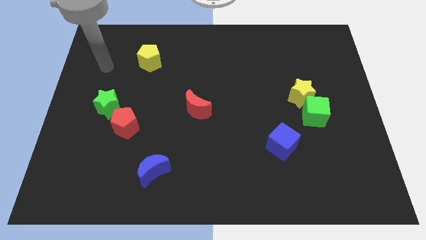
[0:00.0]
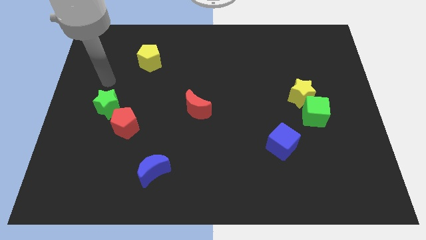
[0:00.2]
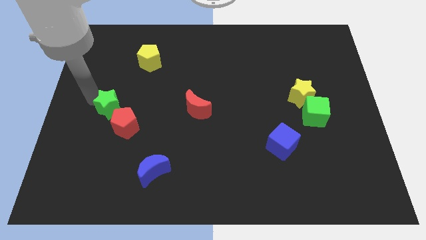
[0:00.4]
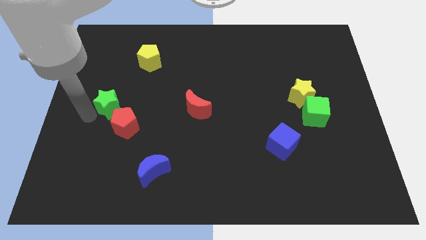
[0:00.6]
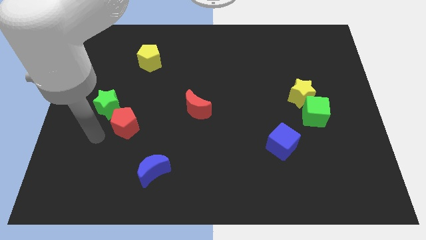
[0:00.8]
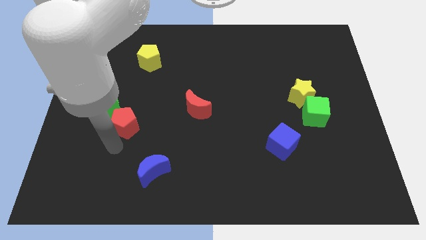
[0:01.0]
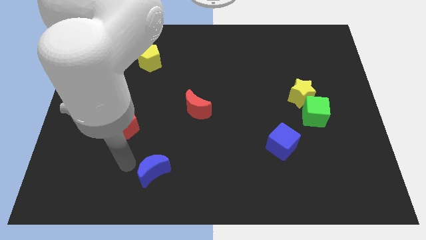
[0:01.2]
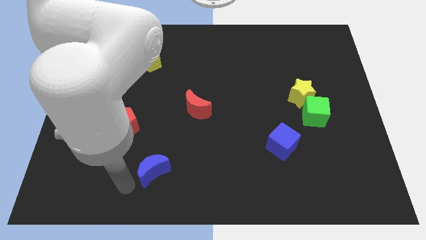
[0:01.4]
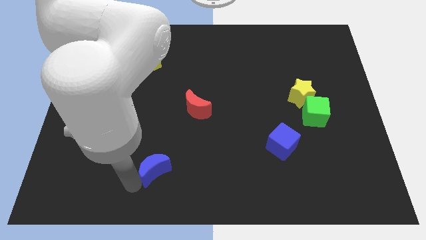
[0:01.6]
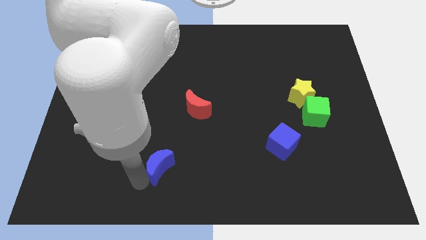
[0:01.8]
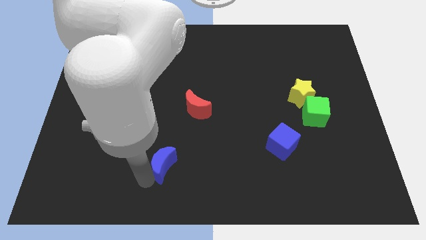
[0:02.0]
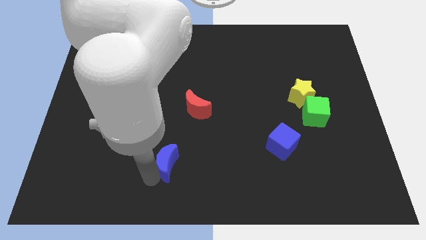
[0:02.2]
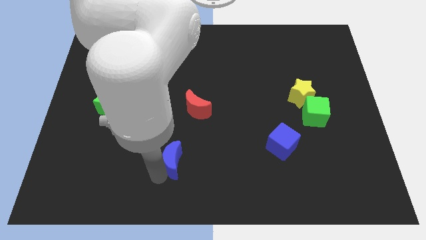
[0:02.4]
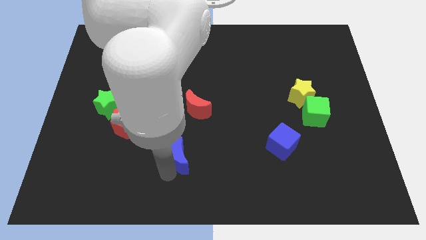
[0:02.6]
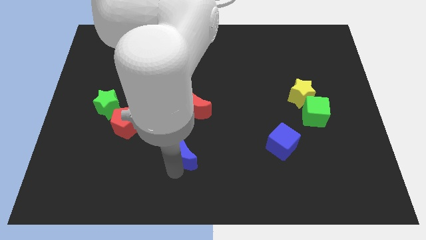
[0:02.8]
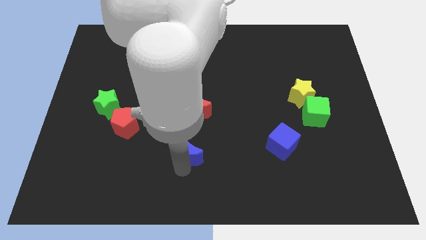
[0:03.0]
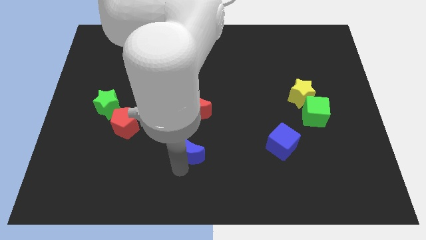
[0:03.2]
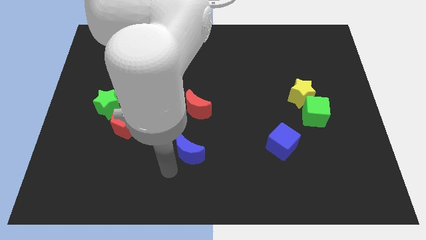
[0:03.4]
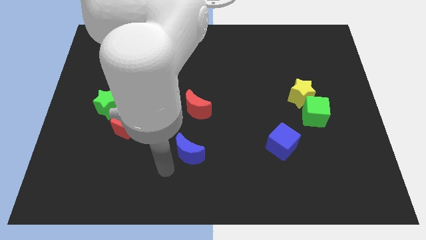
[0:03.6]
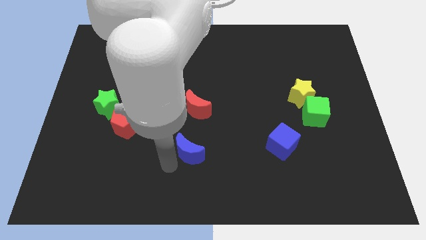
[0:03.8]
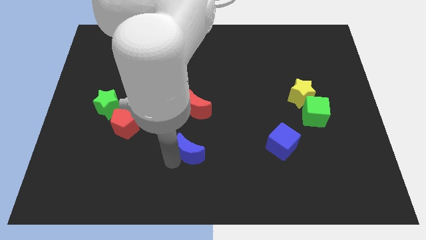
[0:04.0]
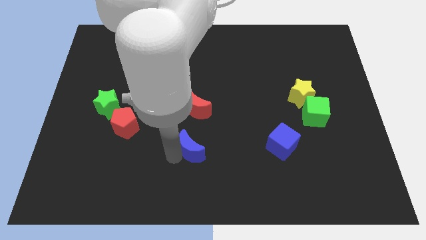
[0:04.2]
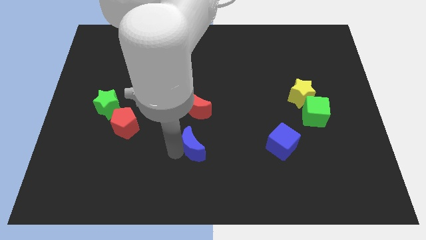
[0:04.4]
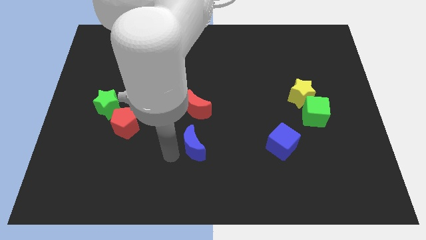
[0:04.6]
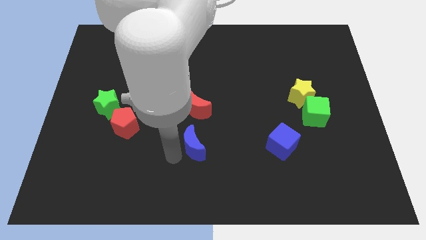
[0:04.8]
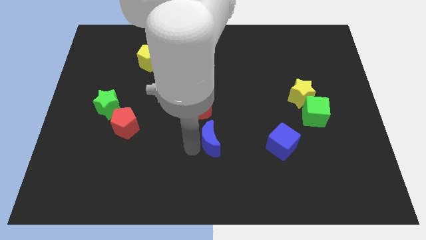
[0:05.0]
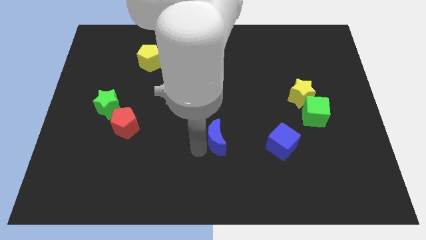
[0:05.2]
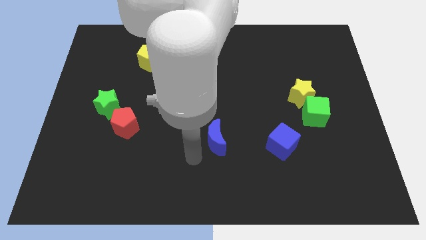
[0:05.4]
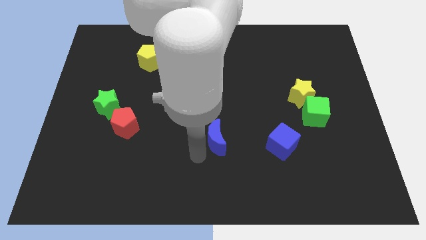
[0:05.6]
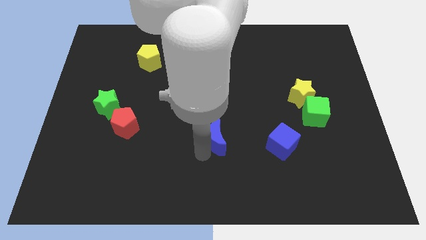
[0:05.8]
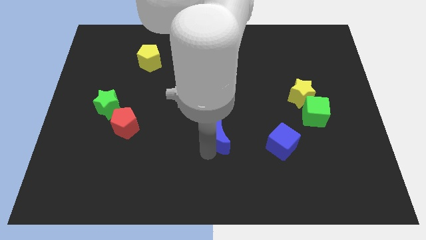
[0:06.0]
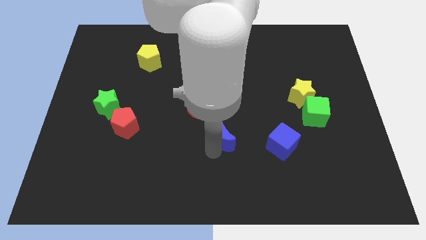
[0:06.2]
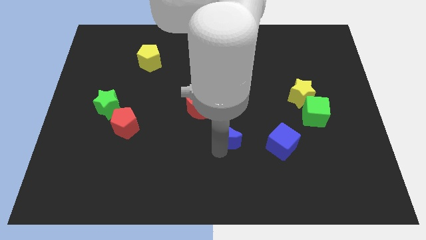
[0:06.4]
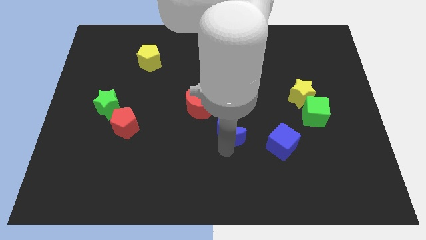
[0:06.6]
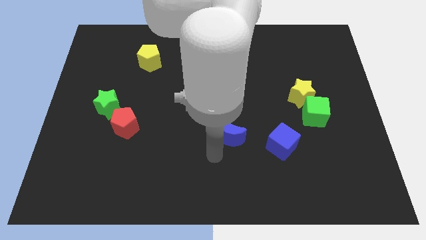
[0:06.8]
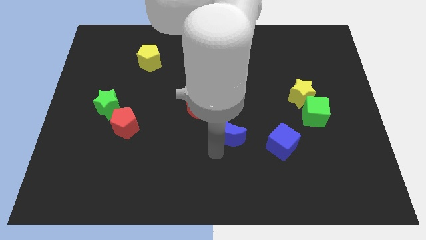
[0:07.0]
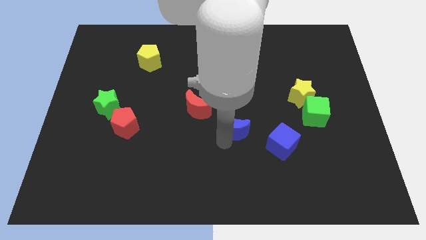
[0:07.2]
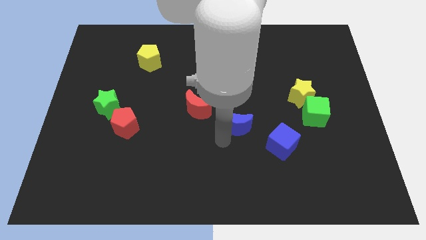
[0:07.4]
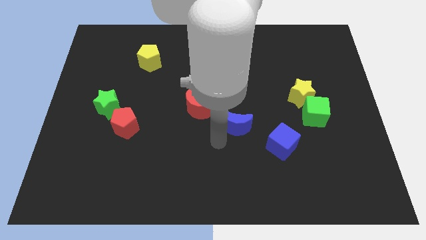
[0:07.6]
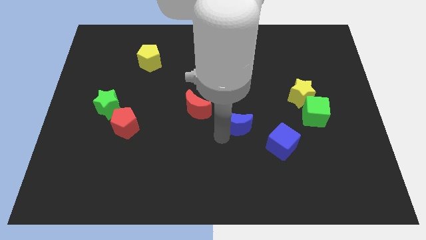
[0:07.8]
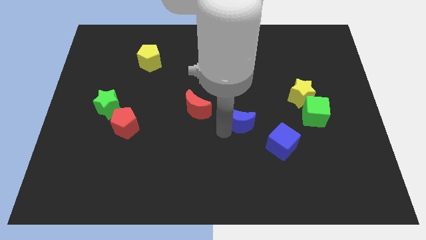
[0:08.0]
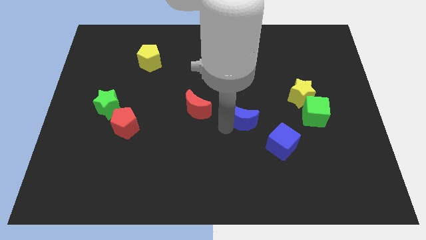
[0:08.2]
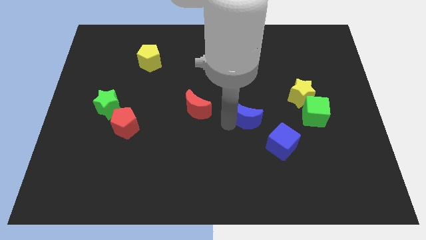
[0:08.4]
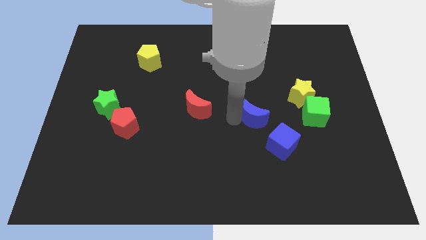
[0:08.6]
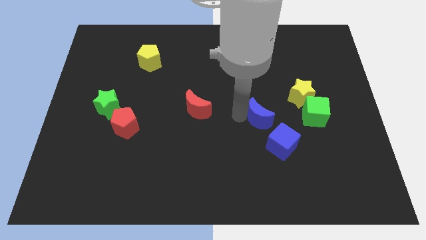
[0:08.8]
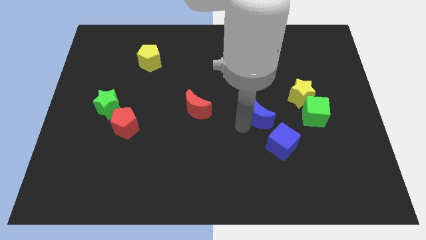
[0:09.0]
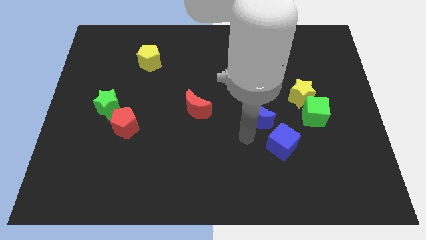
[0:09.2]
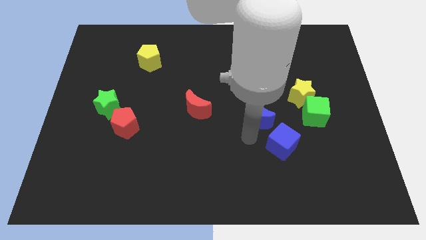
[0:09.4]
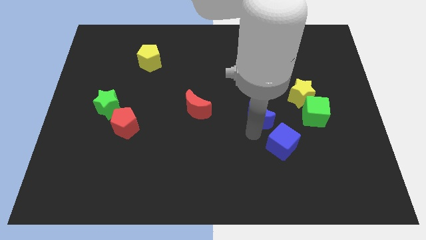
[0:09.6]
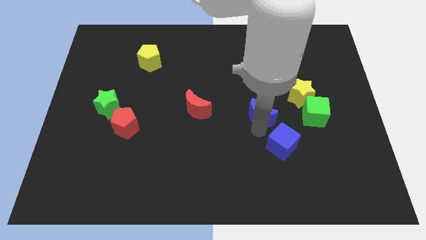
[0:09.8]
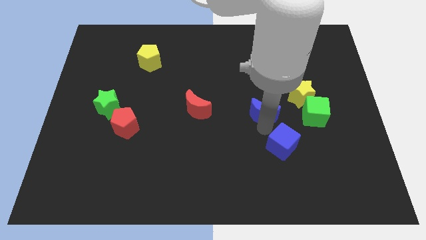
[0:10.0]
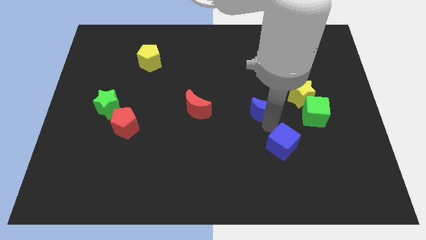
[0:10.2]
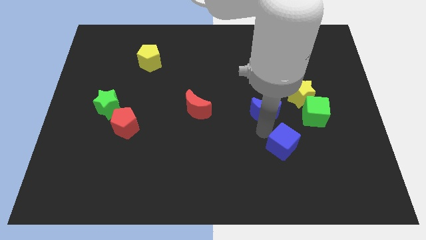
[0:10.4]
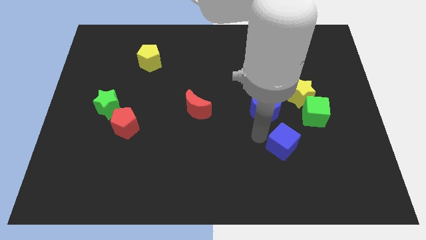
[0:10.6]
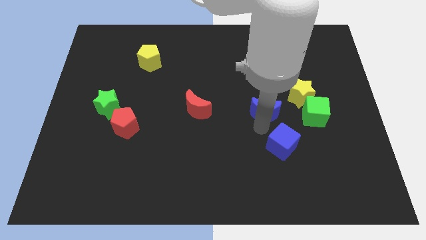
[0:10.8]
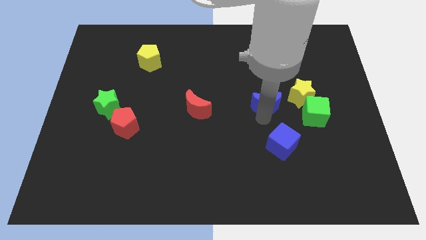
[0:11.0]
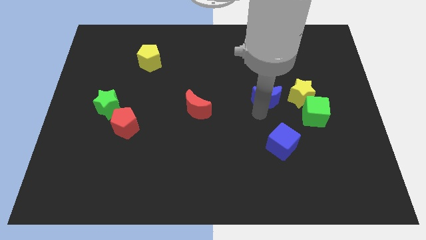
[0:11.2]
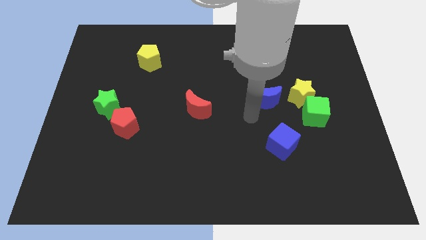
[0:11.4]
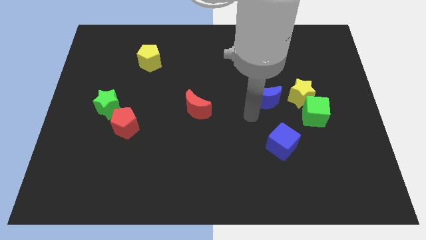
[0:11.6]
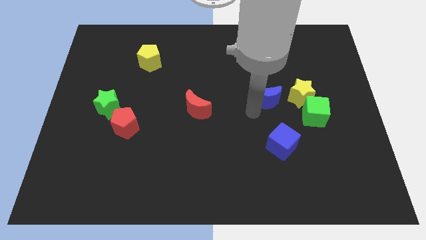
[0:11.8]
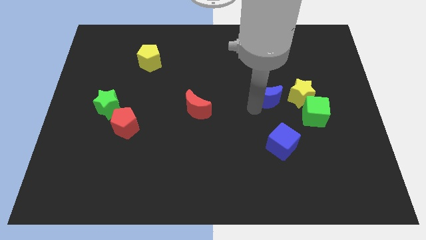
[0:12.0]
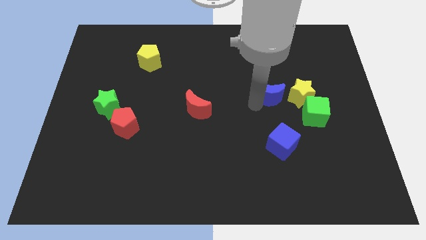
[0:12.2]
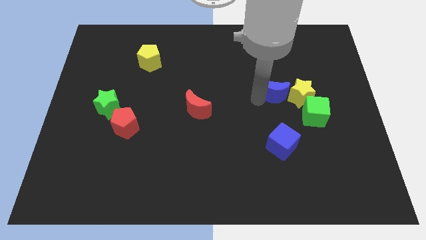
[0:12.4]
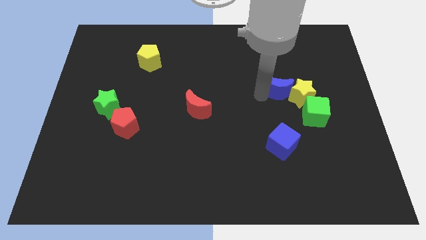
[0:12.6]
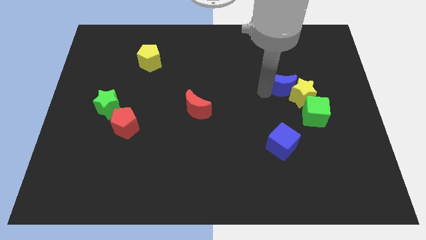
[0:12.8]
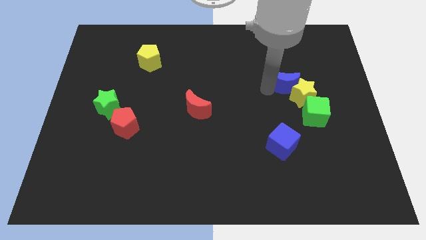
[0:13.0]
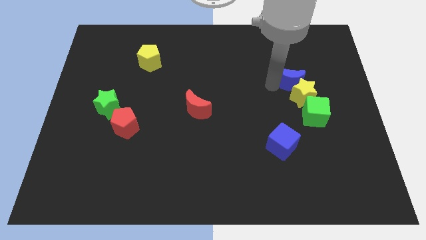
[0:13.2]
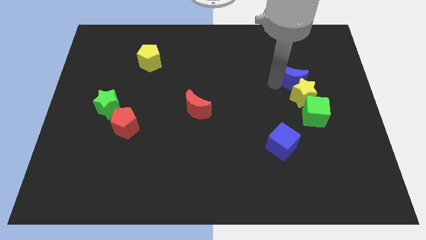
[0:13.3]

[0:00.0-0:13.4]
push the blue moon to the top right side of the yellow star
